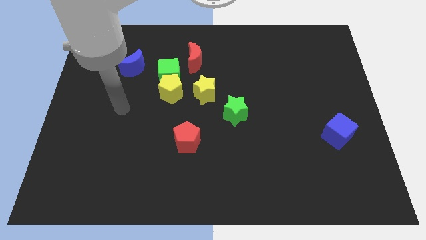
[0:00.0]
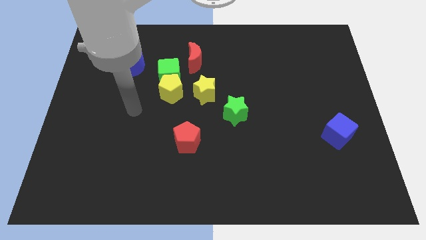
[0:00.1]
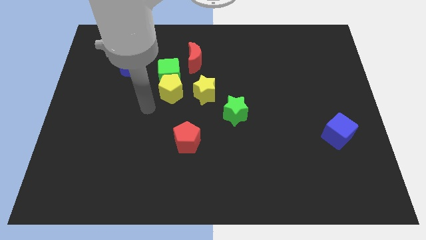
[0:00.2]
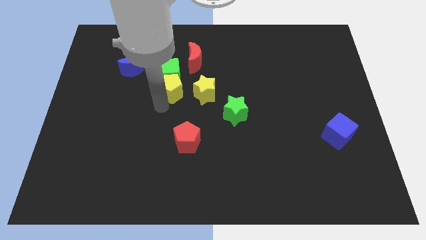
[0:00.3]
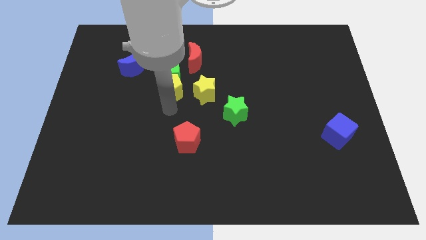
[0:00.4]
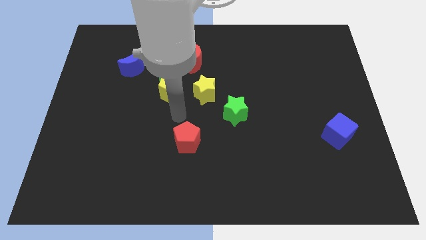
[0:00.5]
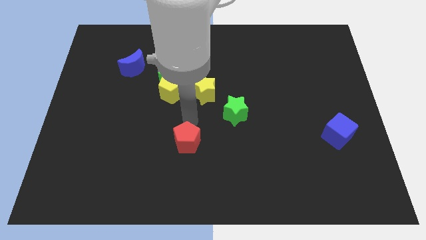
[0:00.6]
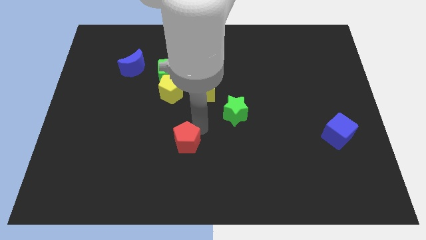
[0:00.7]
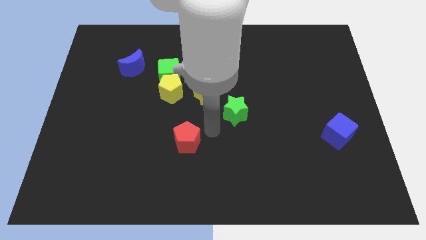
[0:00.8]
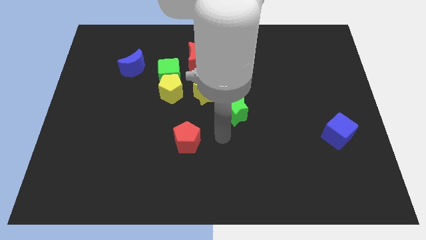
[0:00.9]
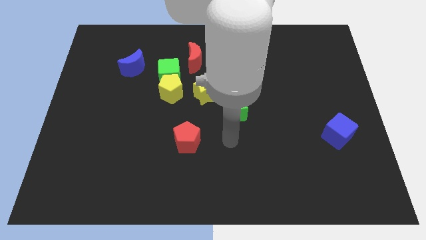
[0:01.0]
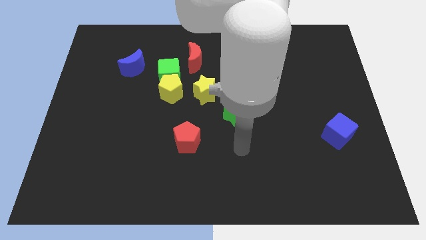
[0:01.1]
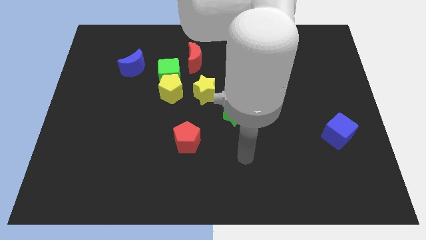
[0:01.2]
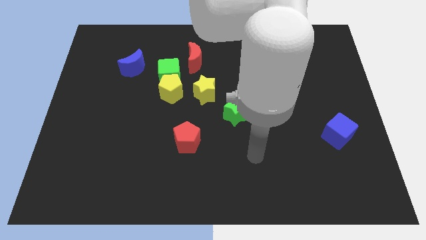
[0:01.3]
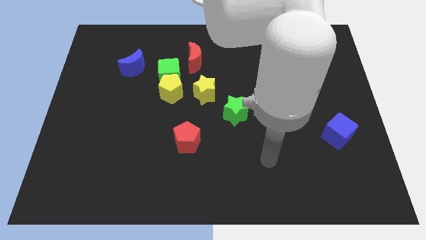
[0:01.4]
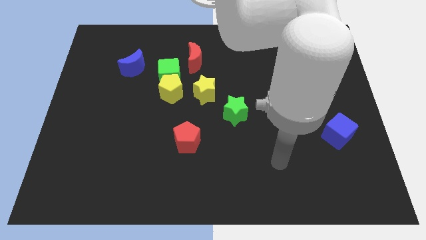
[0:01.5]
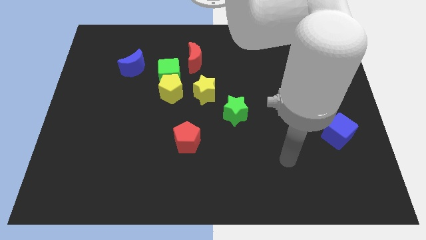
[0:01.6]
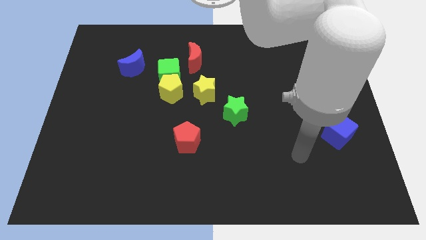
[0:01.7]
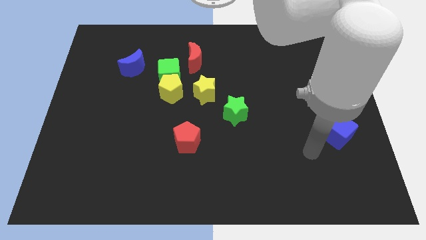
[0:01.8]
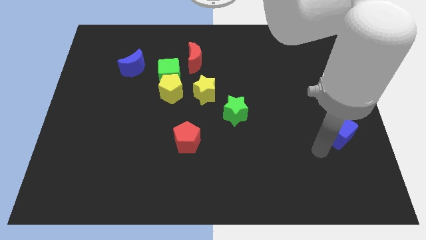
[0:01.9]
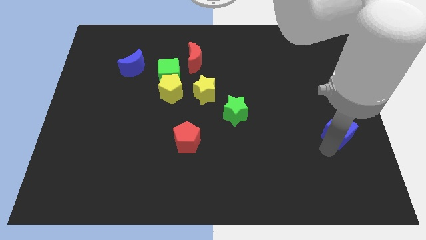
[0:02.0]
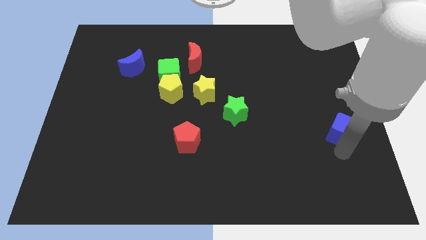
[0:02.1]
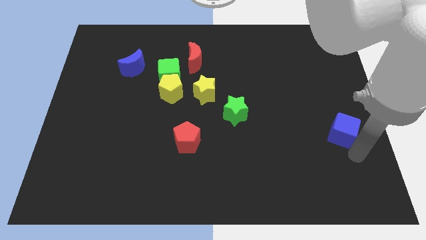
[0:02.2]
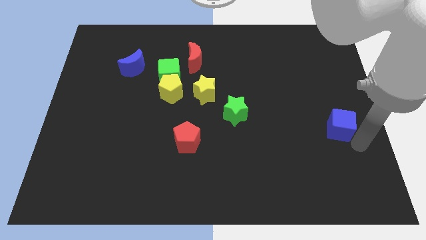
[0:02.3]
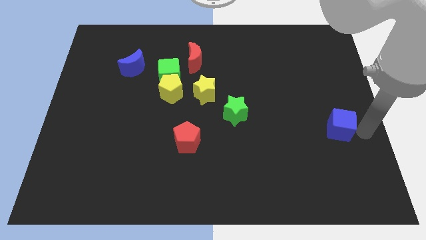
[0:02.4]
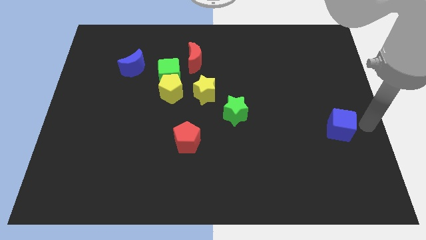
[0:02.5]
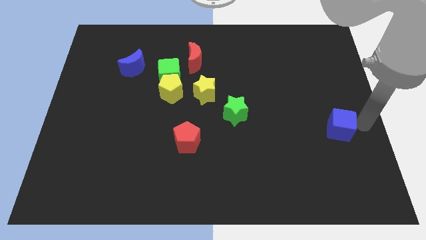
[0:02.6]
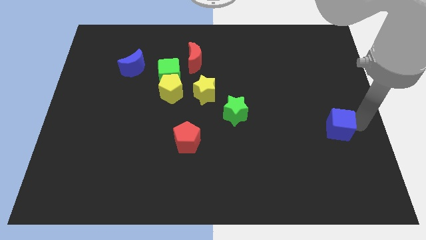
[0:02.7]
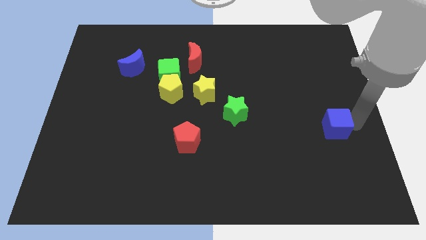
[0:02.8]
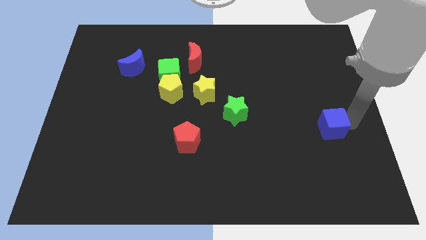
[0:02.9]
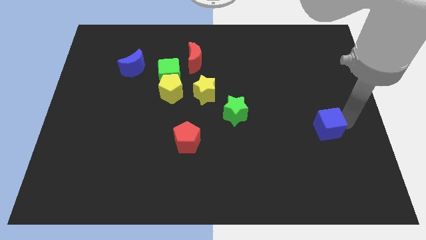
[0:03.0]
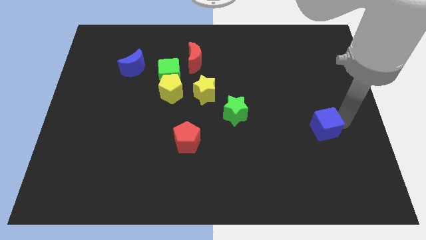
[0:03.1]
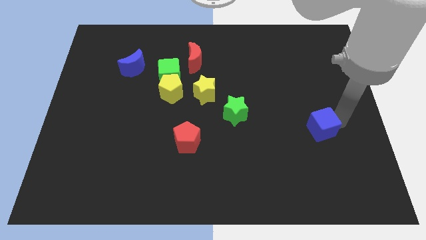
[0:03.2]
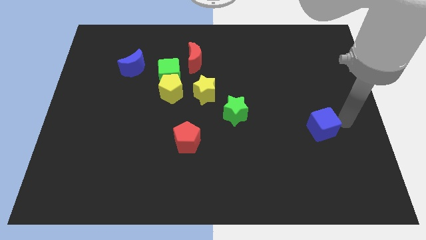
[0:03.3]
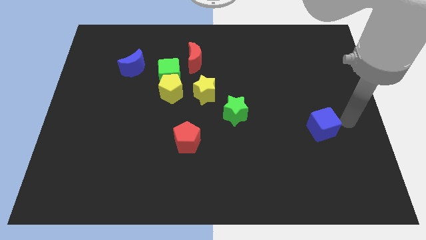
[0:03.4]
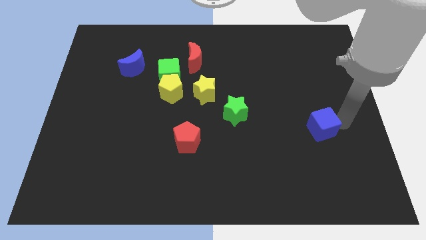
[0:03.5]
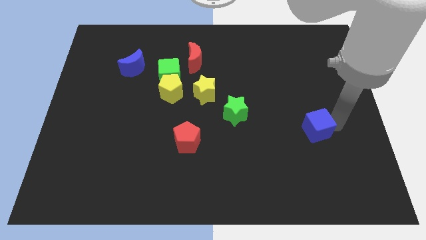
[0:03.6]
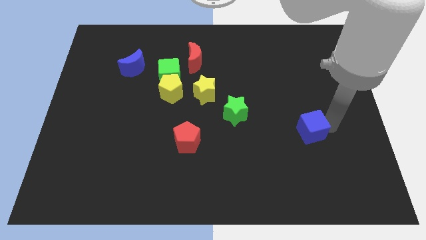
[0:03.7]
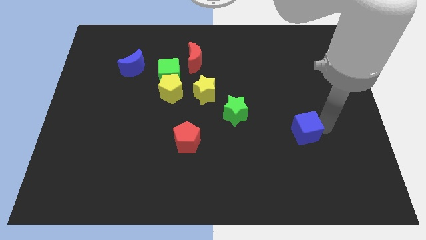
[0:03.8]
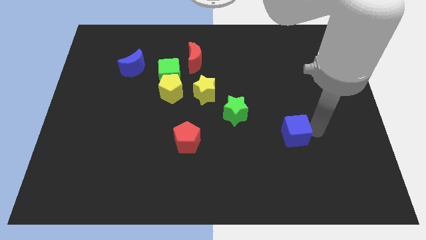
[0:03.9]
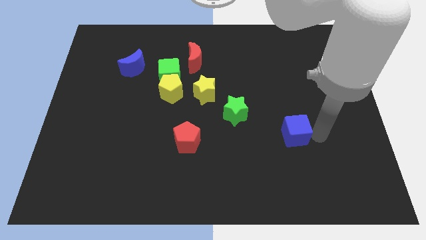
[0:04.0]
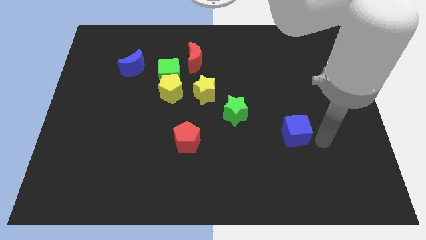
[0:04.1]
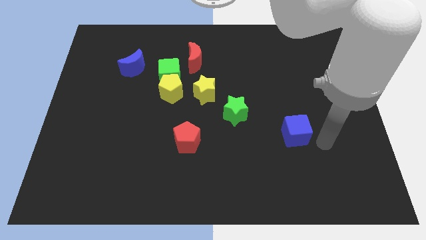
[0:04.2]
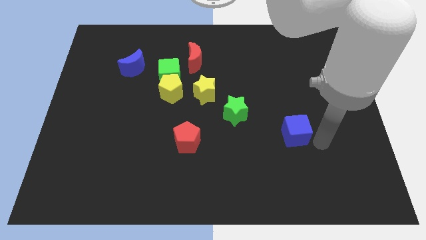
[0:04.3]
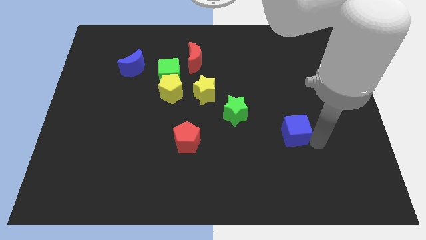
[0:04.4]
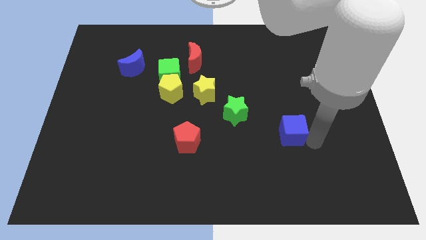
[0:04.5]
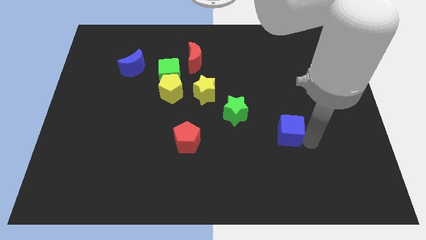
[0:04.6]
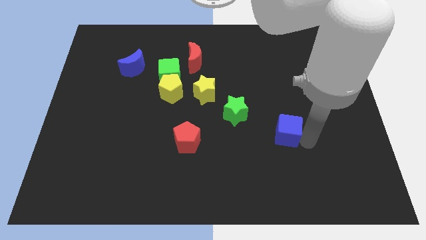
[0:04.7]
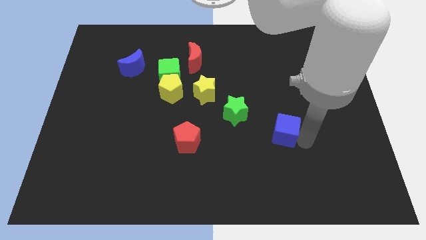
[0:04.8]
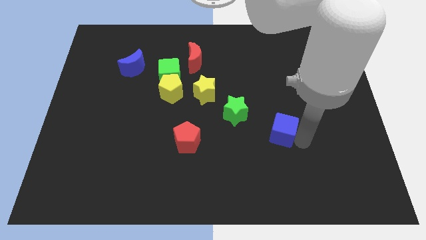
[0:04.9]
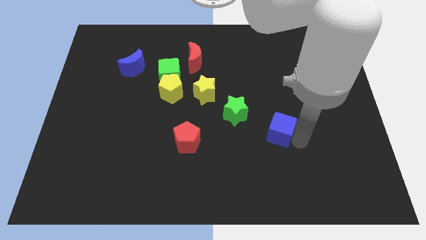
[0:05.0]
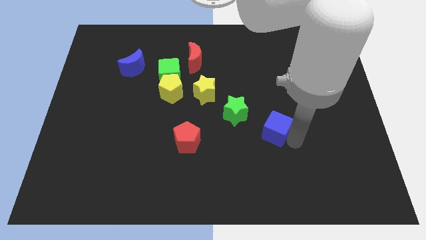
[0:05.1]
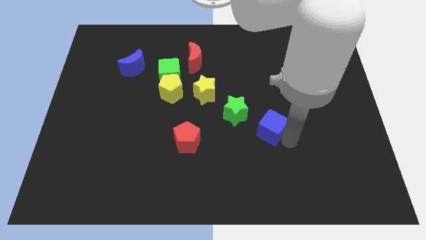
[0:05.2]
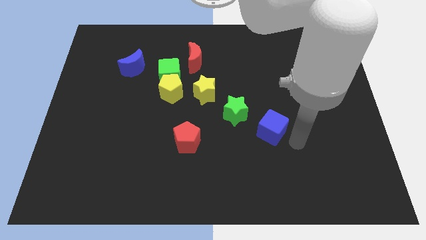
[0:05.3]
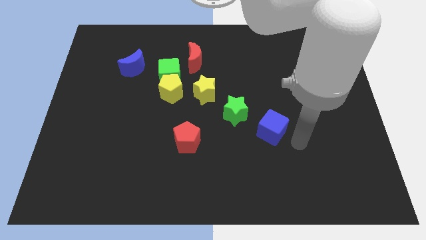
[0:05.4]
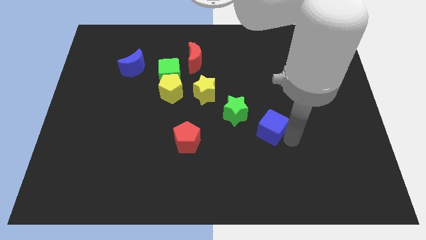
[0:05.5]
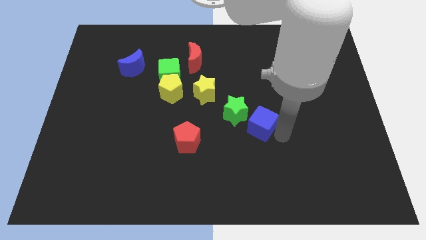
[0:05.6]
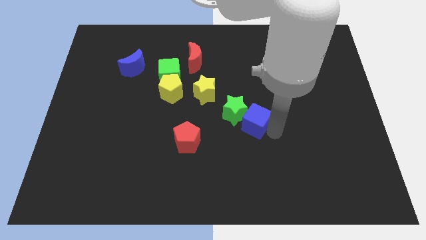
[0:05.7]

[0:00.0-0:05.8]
slide the blue cube close to the green star

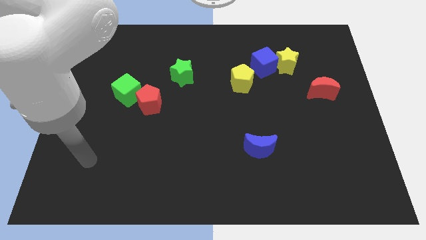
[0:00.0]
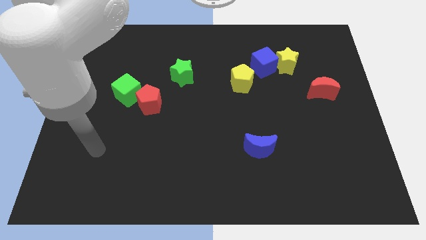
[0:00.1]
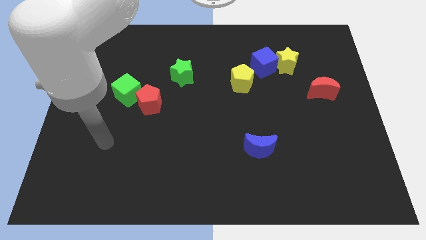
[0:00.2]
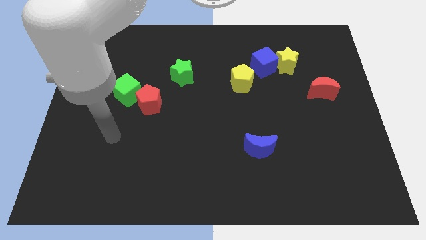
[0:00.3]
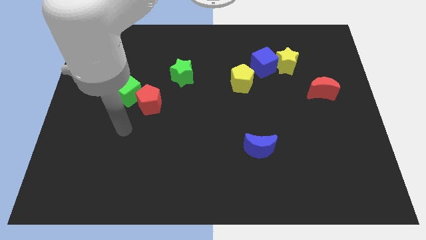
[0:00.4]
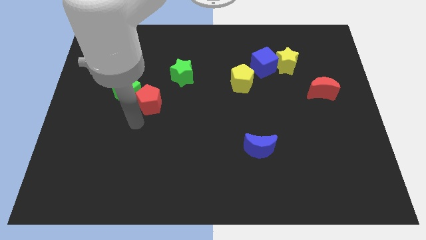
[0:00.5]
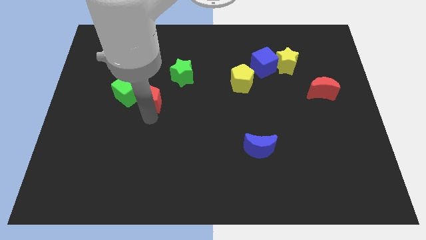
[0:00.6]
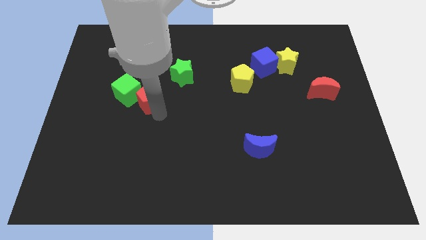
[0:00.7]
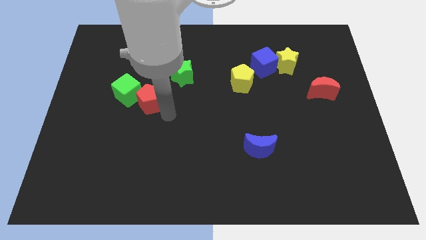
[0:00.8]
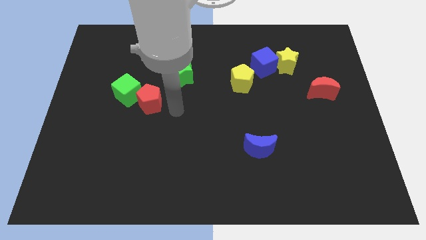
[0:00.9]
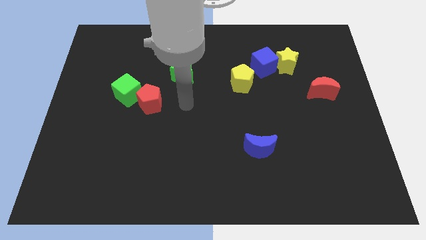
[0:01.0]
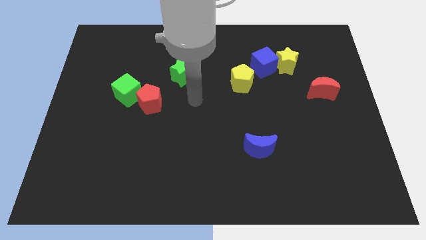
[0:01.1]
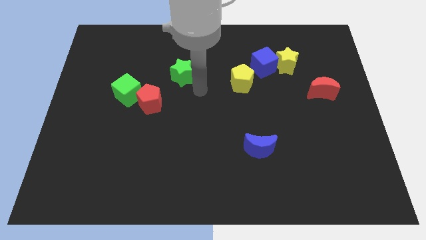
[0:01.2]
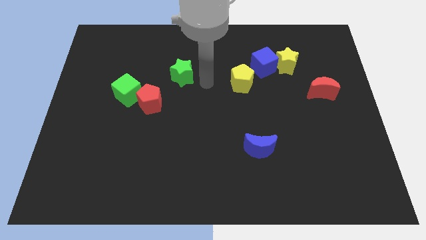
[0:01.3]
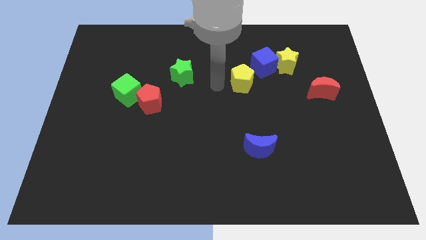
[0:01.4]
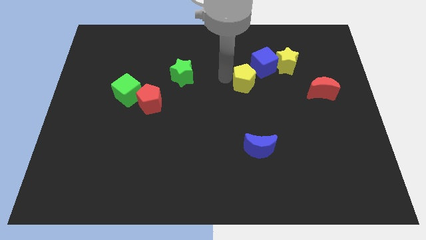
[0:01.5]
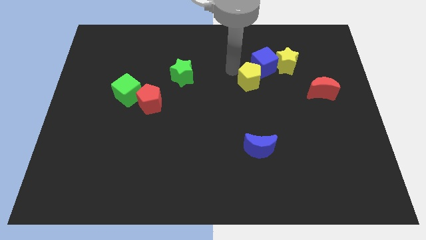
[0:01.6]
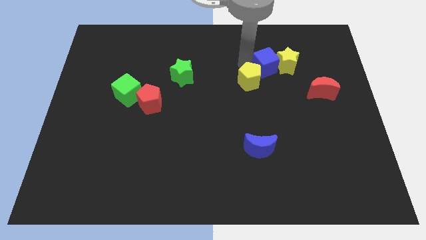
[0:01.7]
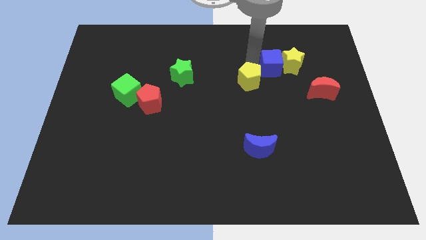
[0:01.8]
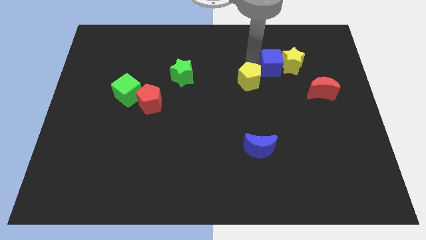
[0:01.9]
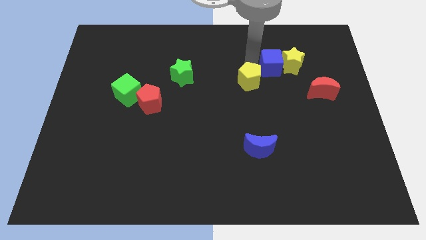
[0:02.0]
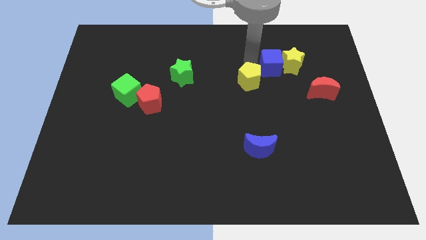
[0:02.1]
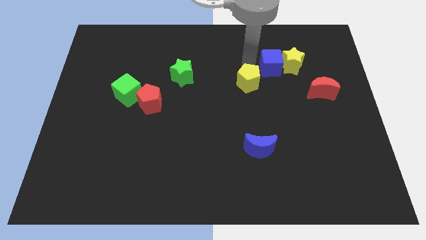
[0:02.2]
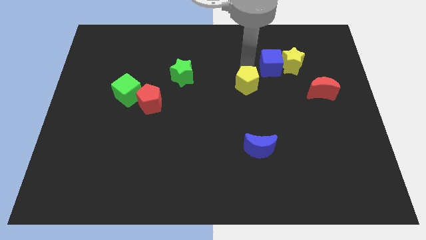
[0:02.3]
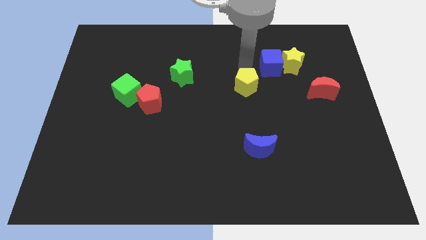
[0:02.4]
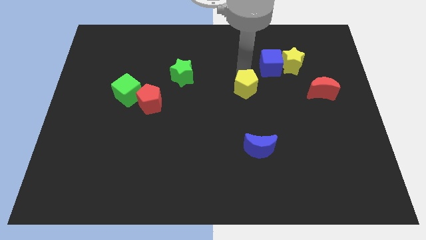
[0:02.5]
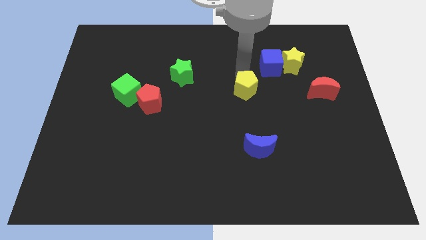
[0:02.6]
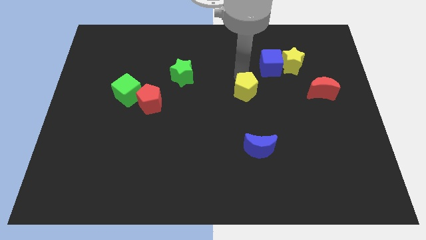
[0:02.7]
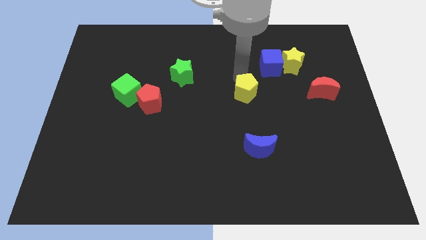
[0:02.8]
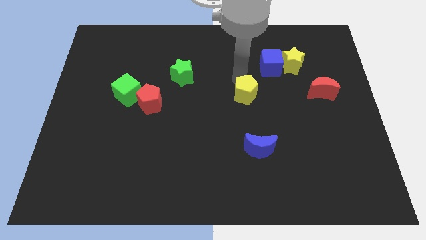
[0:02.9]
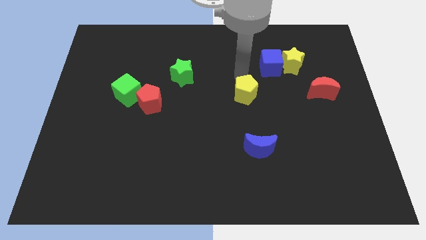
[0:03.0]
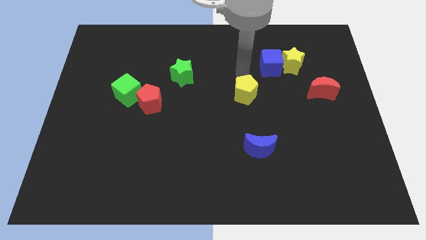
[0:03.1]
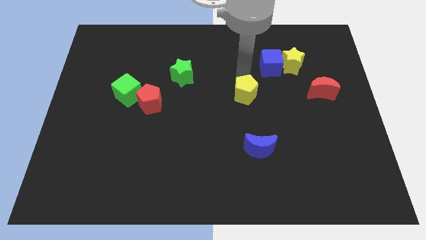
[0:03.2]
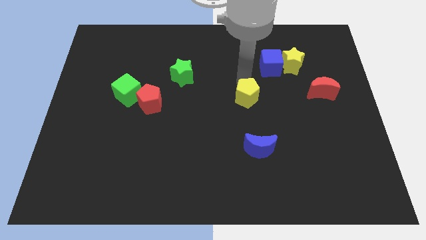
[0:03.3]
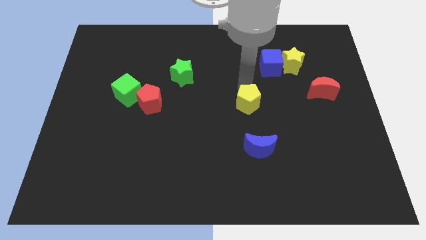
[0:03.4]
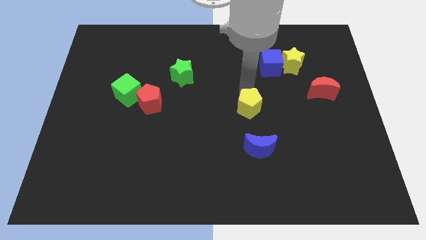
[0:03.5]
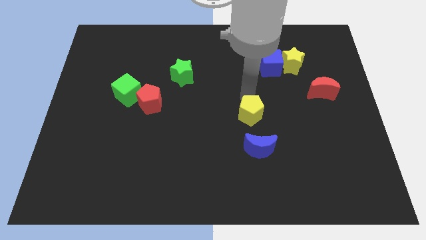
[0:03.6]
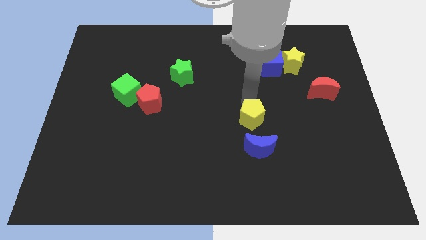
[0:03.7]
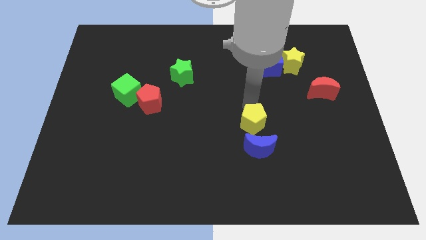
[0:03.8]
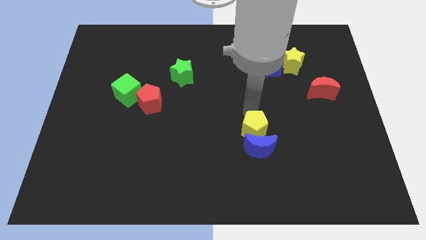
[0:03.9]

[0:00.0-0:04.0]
put the yellow pentagon close to the blue moon
